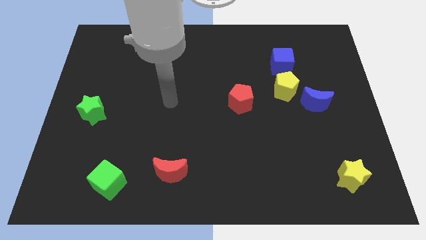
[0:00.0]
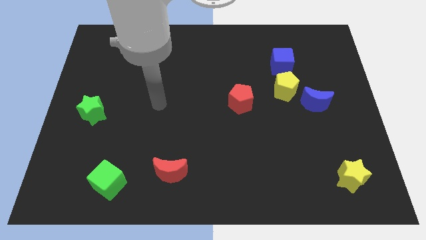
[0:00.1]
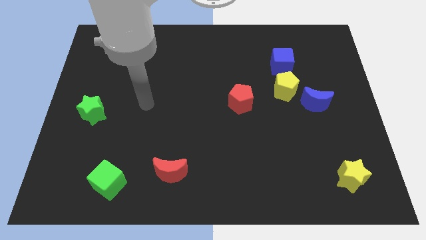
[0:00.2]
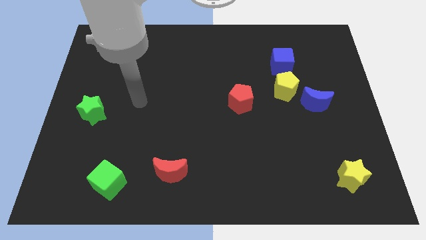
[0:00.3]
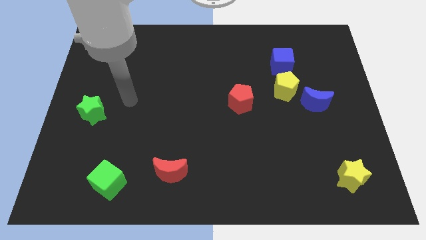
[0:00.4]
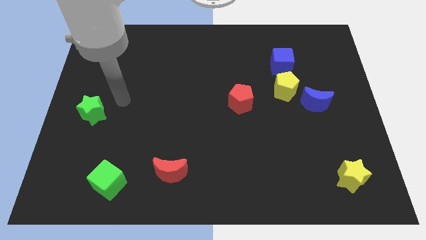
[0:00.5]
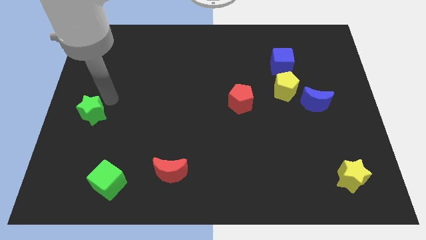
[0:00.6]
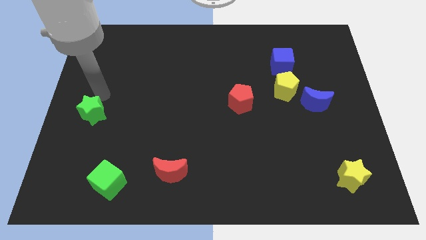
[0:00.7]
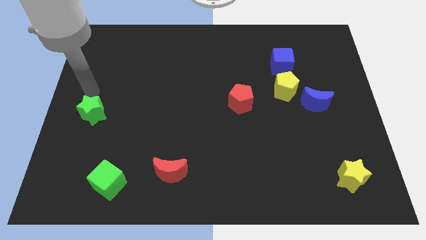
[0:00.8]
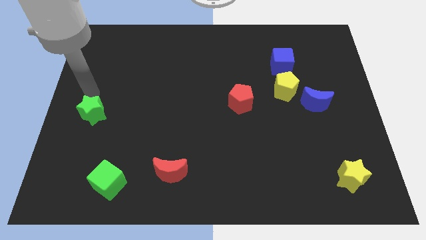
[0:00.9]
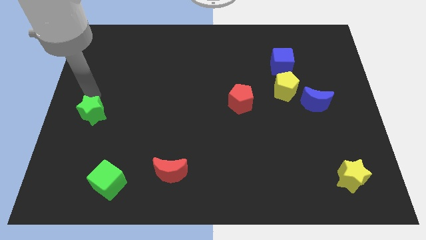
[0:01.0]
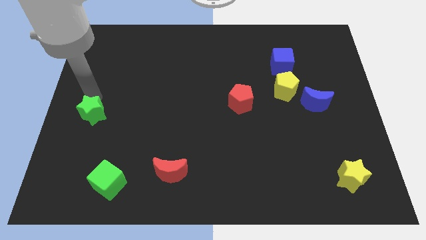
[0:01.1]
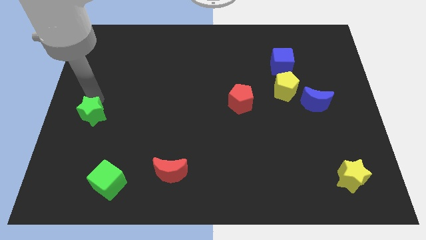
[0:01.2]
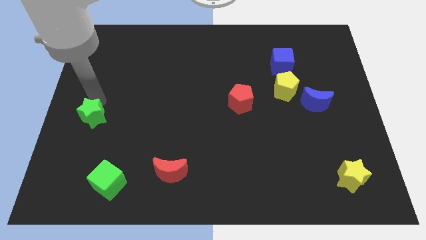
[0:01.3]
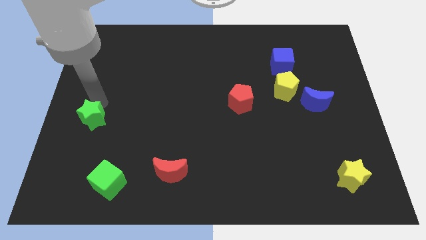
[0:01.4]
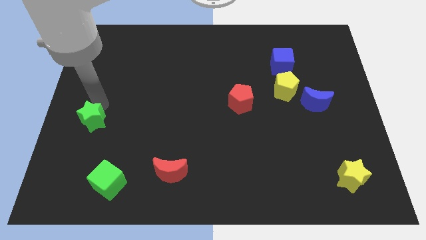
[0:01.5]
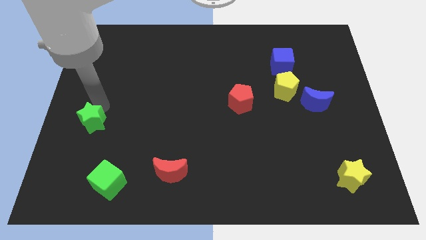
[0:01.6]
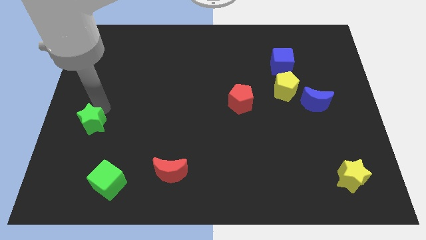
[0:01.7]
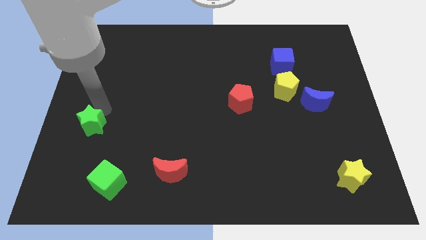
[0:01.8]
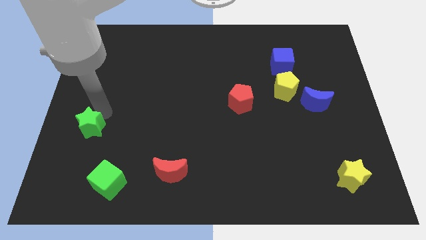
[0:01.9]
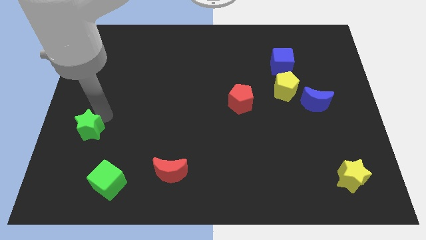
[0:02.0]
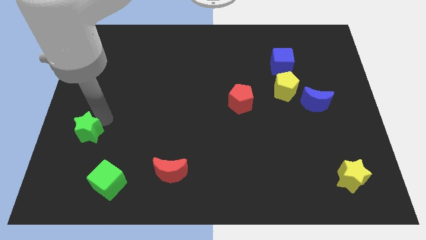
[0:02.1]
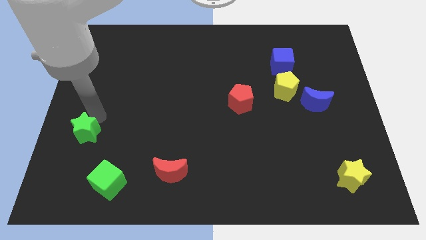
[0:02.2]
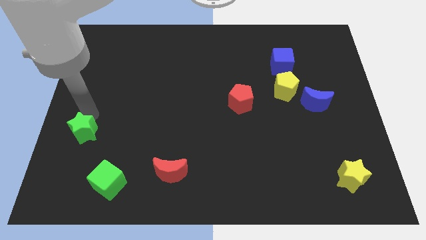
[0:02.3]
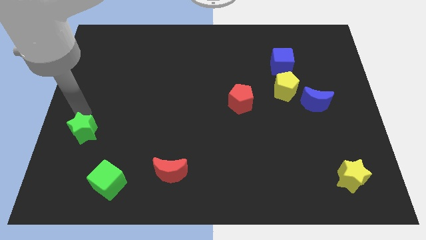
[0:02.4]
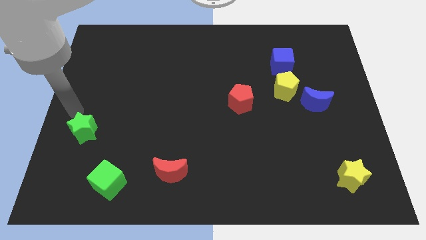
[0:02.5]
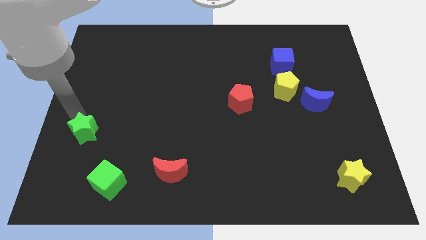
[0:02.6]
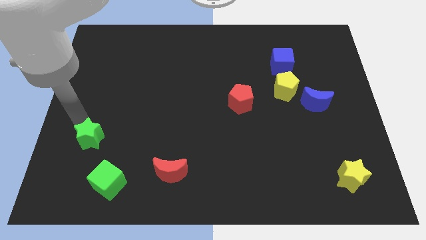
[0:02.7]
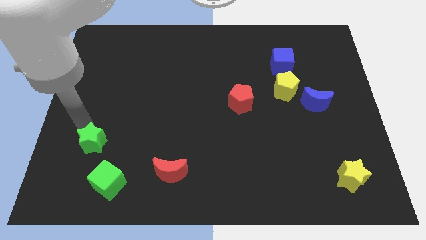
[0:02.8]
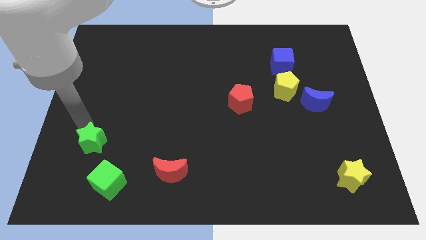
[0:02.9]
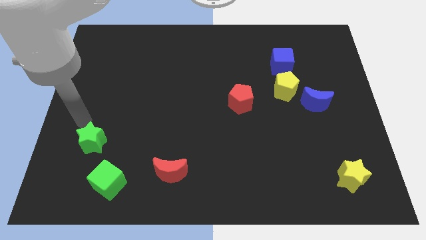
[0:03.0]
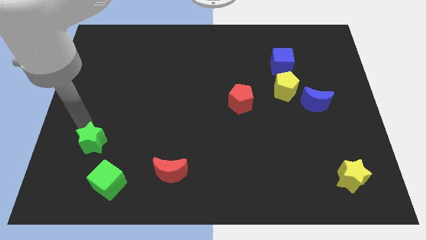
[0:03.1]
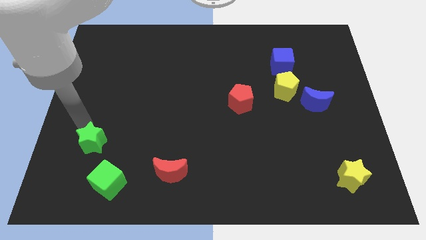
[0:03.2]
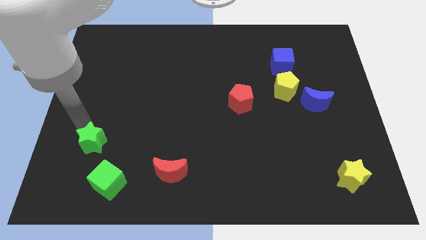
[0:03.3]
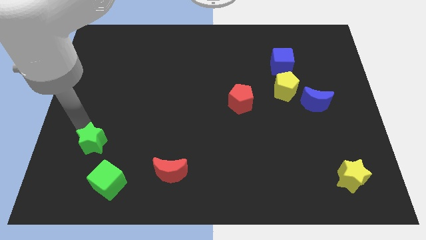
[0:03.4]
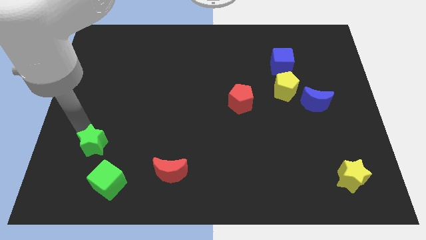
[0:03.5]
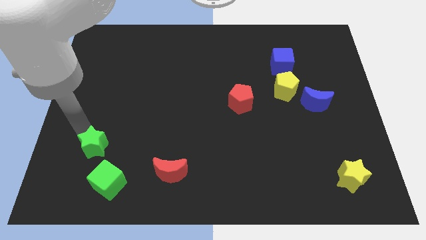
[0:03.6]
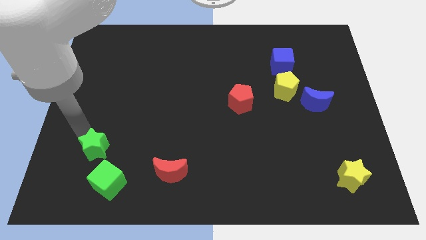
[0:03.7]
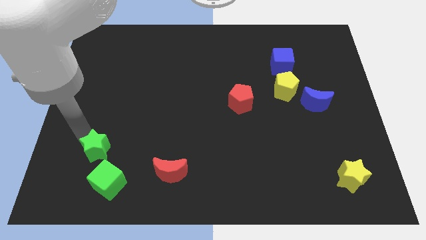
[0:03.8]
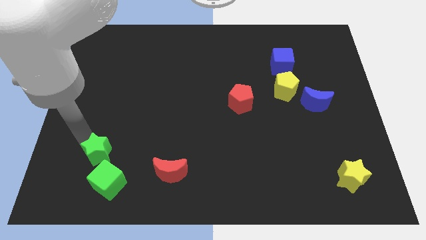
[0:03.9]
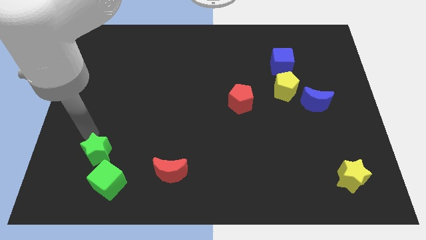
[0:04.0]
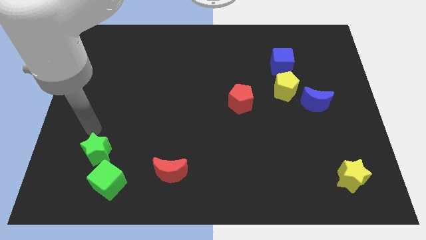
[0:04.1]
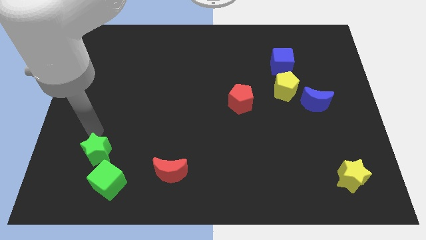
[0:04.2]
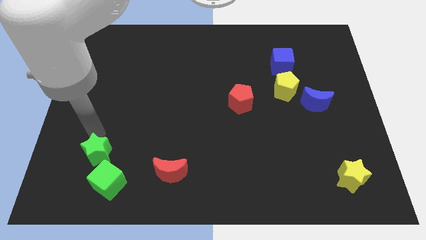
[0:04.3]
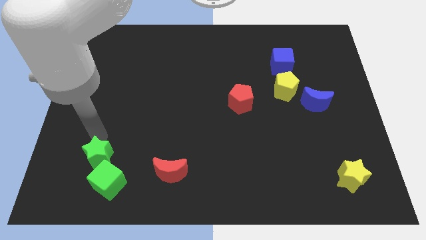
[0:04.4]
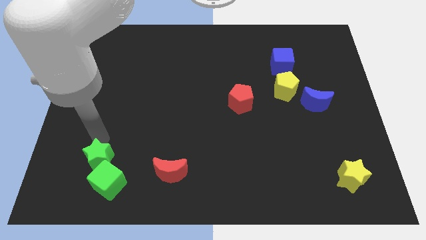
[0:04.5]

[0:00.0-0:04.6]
slide the green star next to the green cube

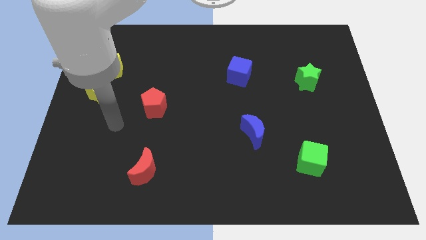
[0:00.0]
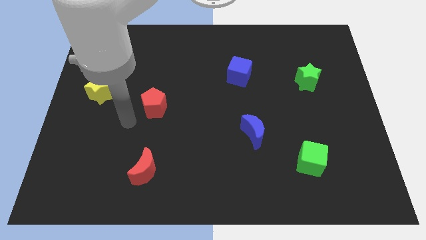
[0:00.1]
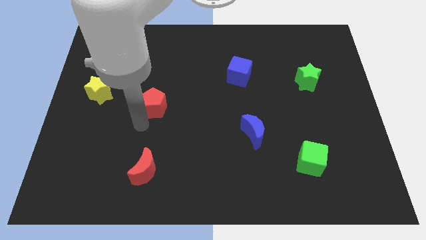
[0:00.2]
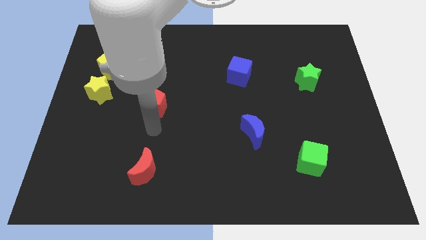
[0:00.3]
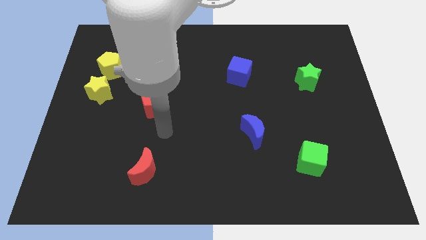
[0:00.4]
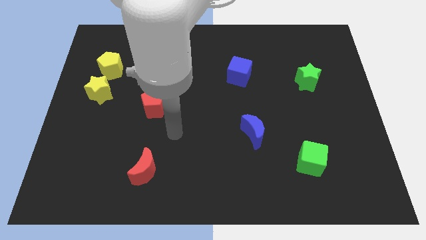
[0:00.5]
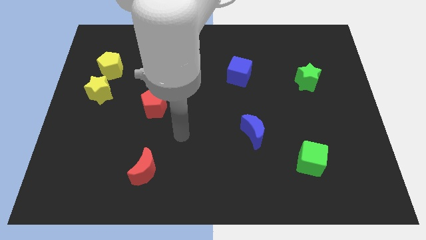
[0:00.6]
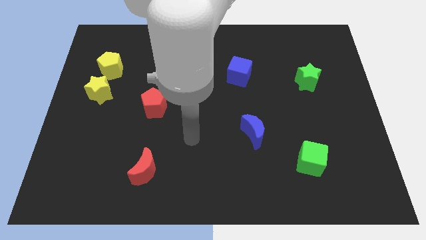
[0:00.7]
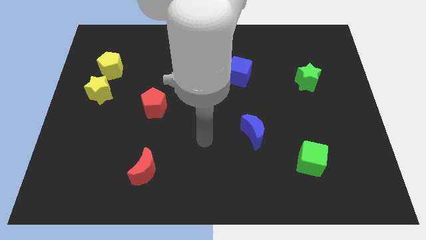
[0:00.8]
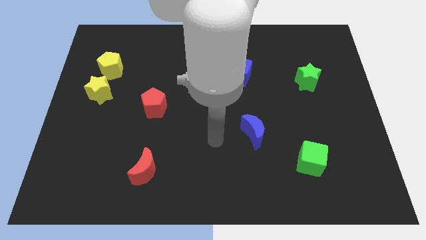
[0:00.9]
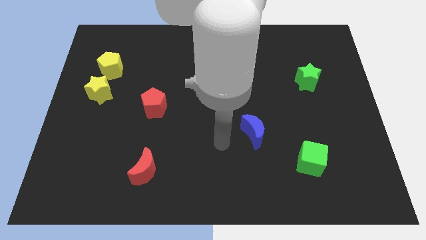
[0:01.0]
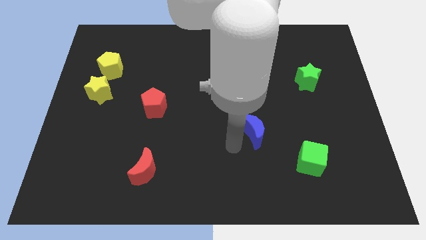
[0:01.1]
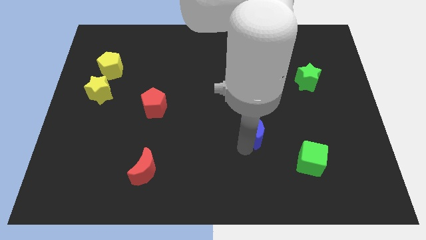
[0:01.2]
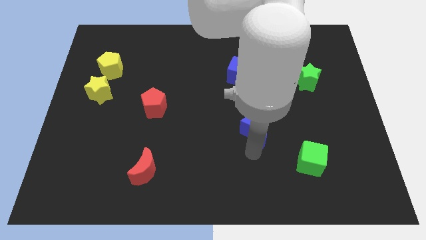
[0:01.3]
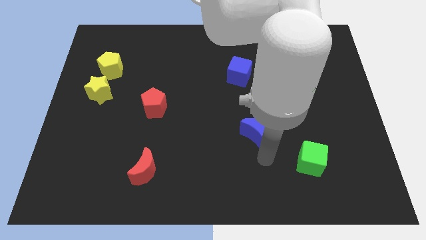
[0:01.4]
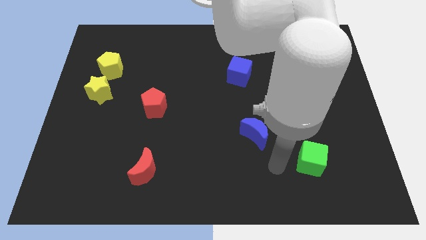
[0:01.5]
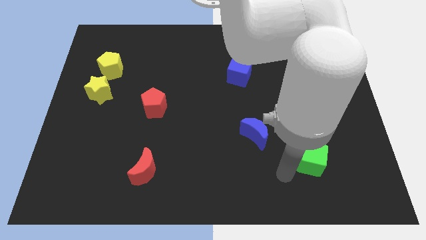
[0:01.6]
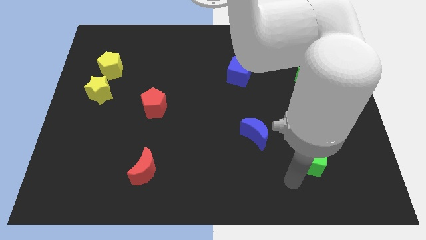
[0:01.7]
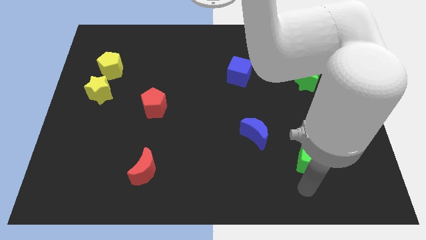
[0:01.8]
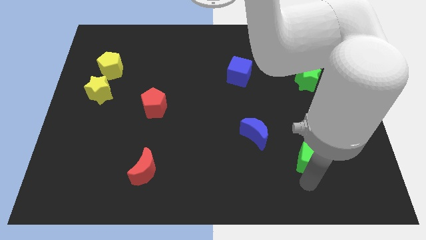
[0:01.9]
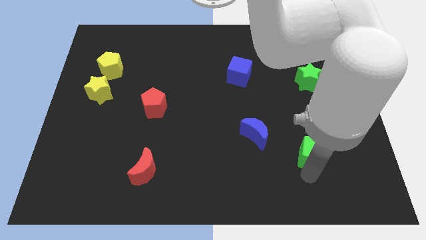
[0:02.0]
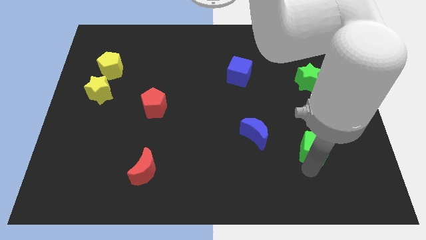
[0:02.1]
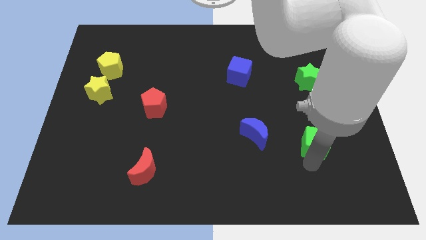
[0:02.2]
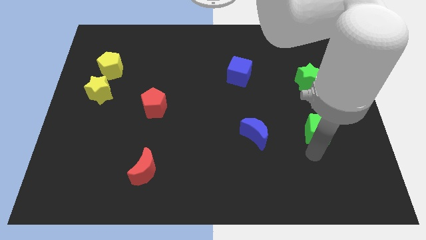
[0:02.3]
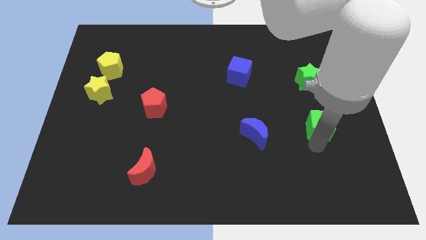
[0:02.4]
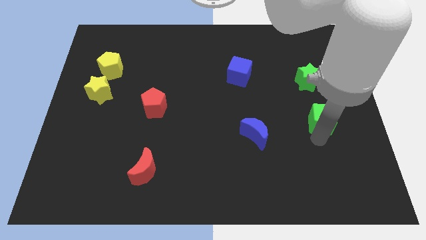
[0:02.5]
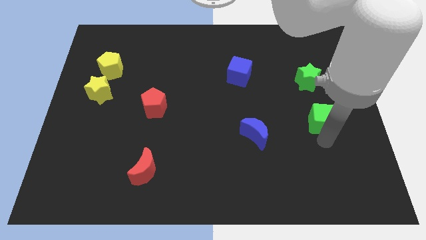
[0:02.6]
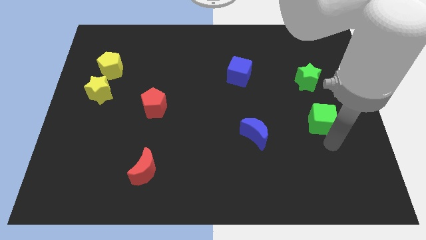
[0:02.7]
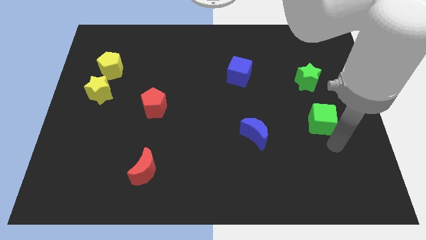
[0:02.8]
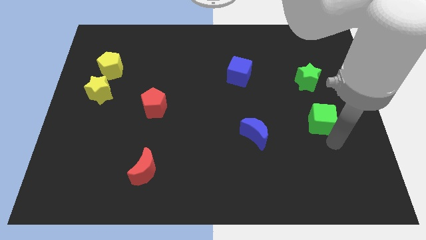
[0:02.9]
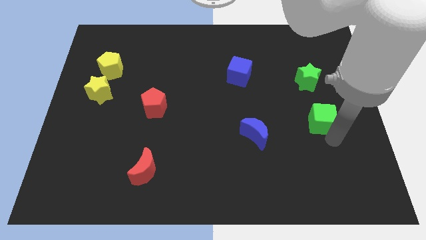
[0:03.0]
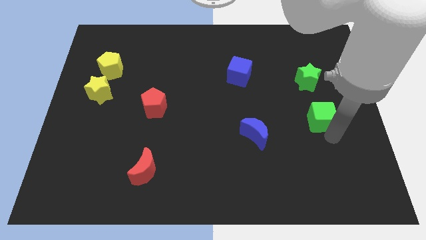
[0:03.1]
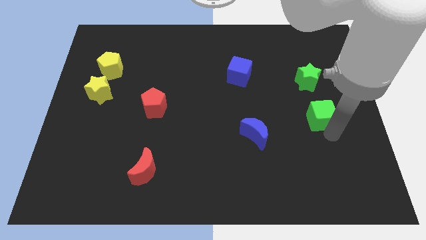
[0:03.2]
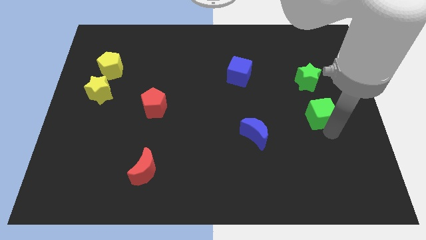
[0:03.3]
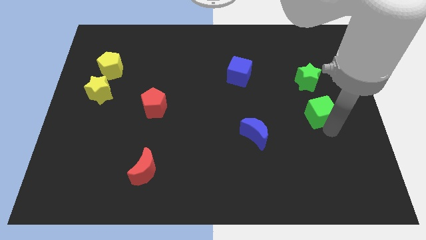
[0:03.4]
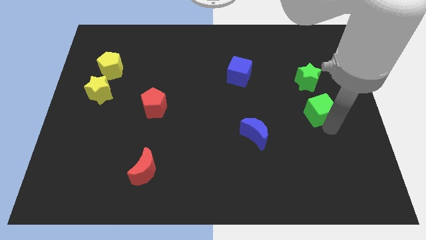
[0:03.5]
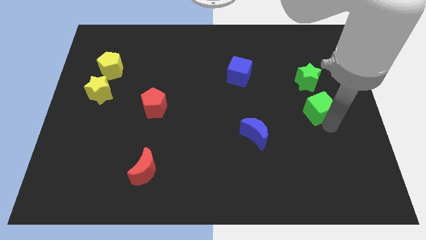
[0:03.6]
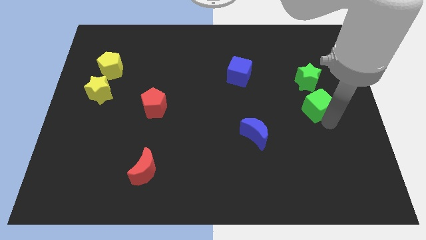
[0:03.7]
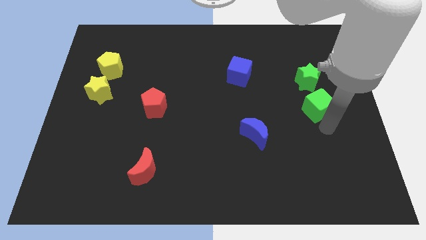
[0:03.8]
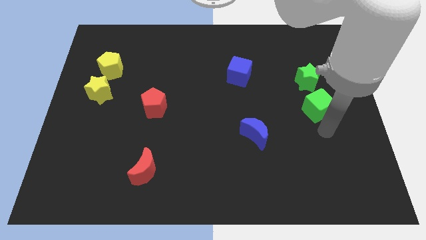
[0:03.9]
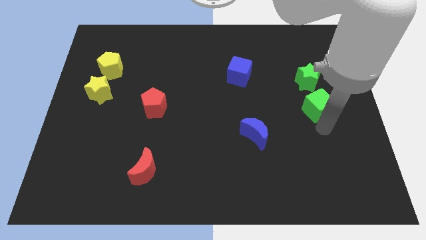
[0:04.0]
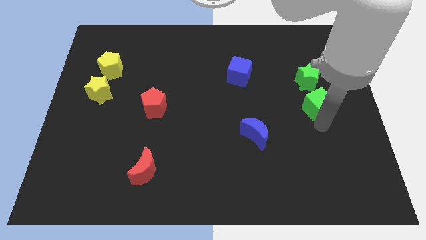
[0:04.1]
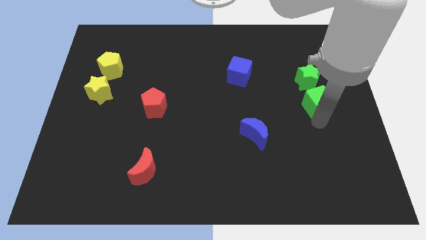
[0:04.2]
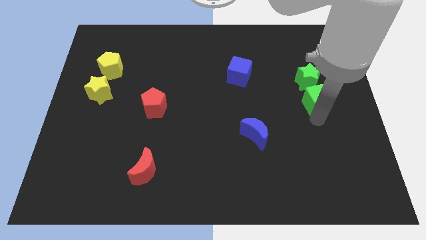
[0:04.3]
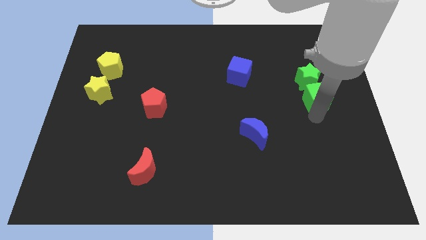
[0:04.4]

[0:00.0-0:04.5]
put the green cube towards the green star
